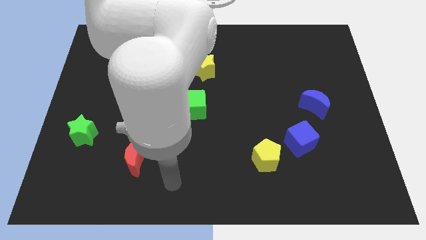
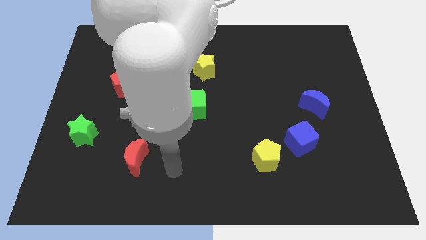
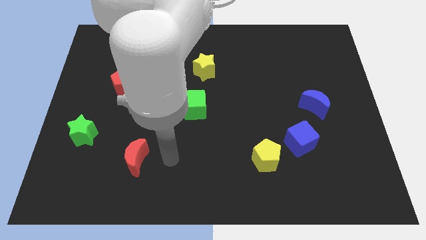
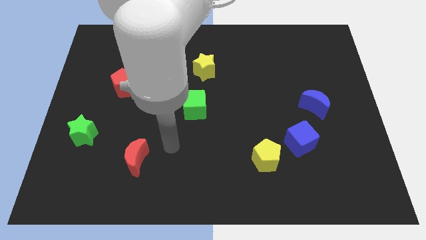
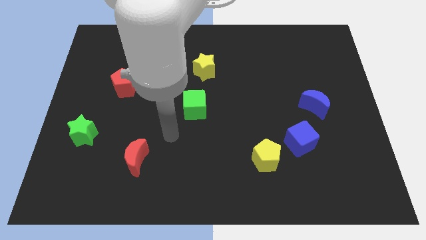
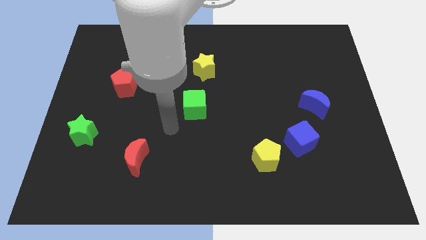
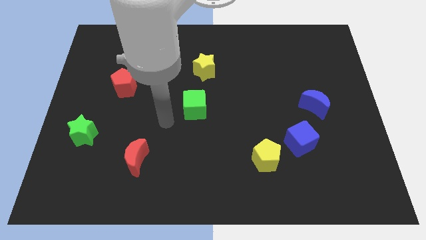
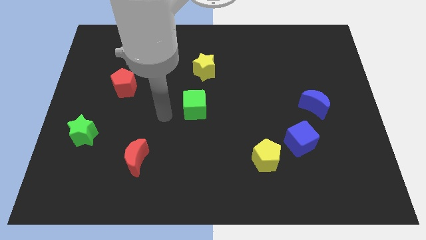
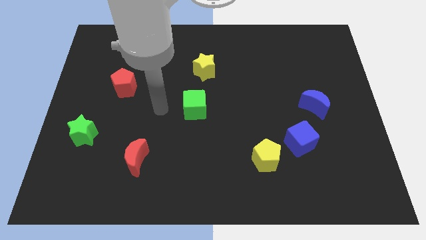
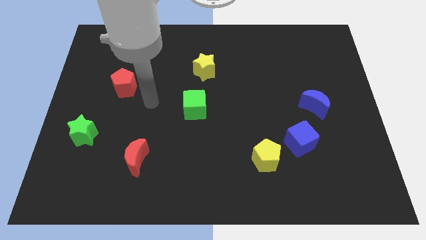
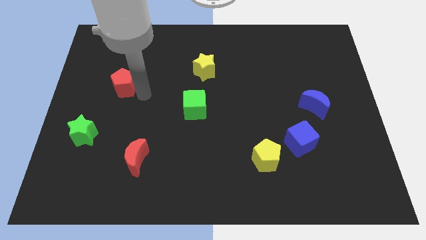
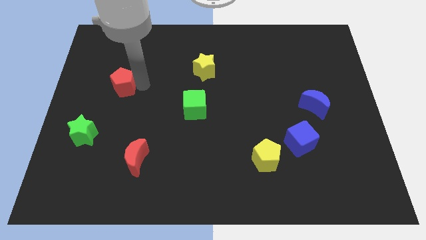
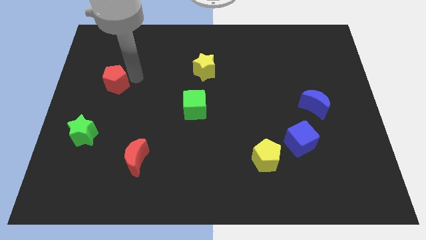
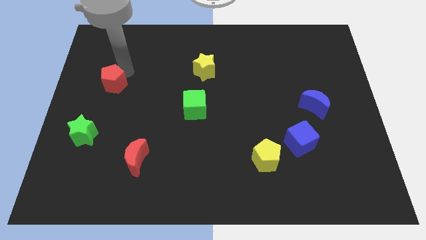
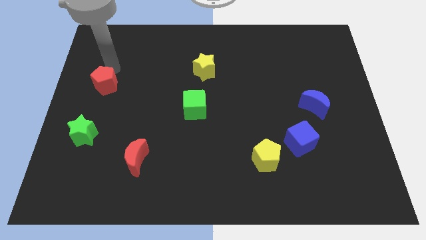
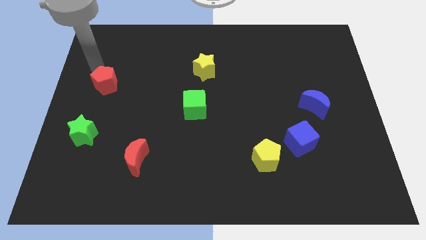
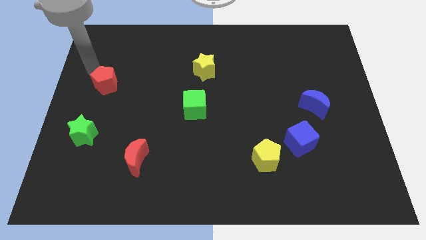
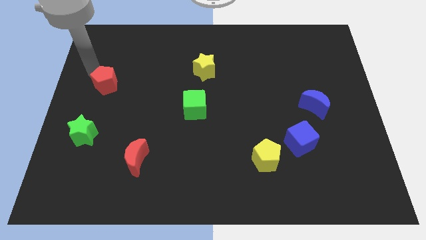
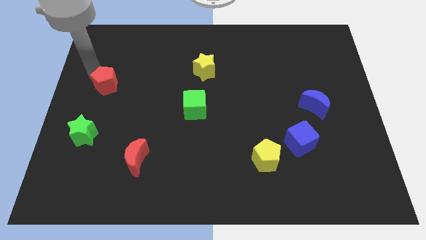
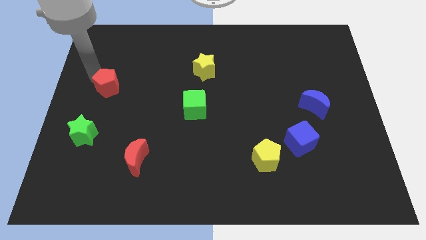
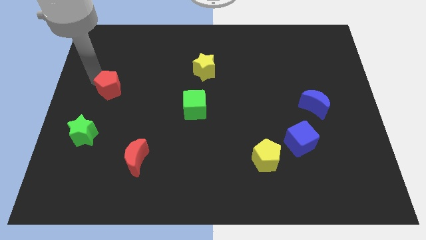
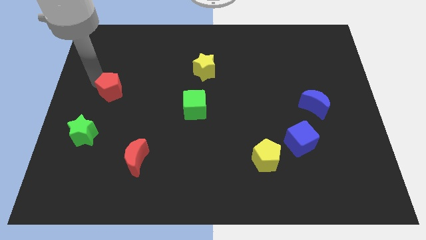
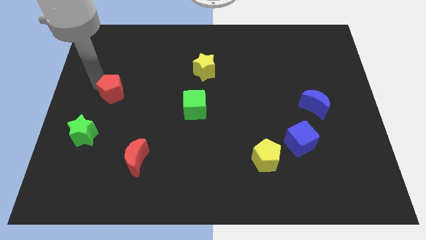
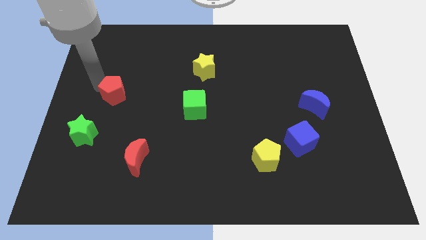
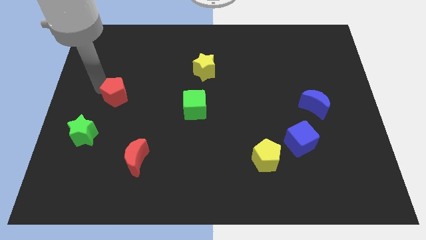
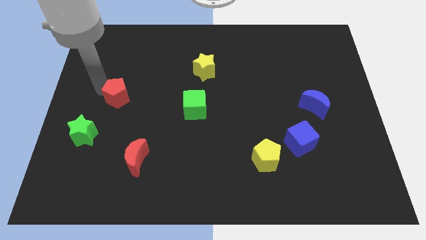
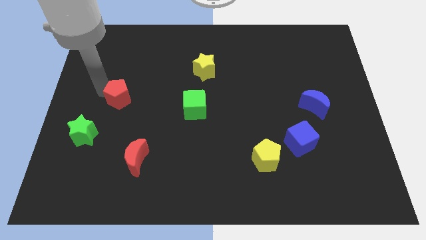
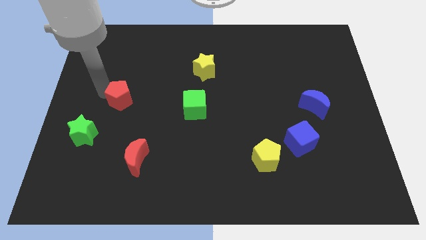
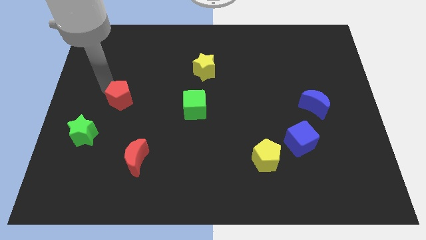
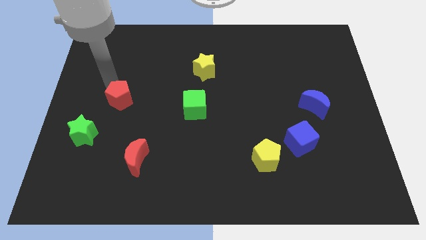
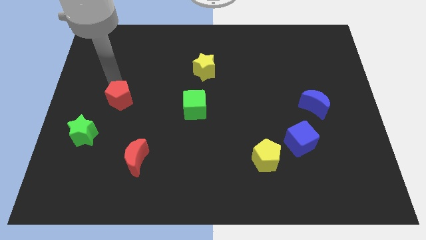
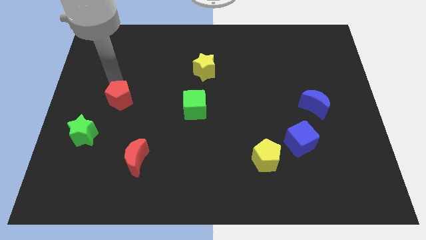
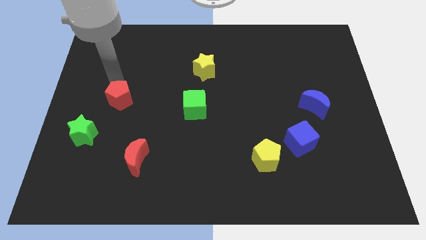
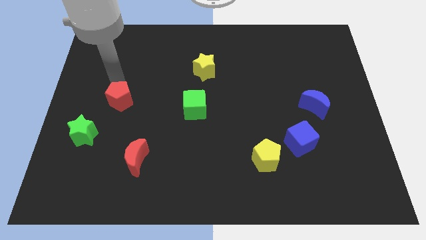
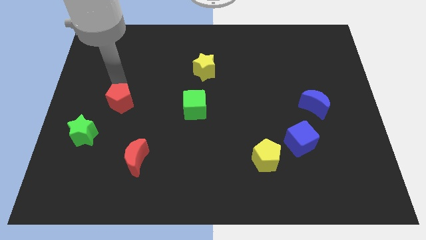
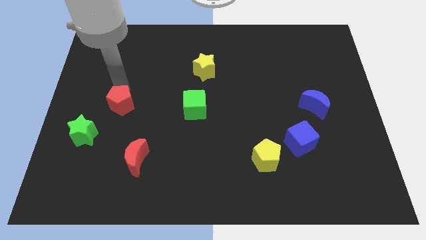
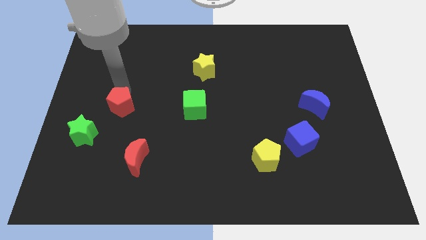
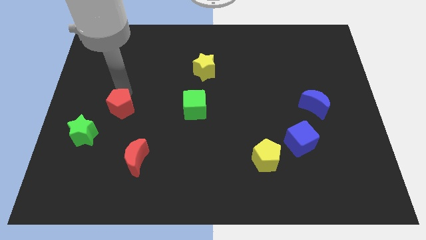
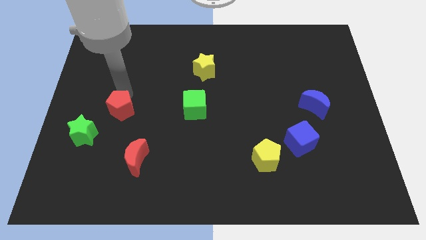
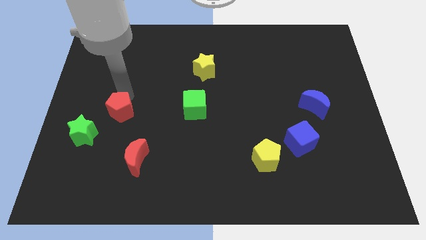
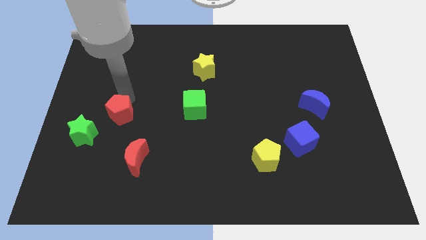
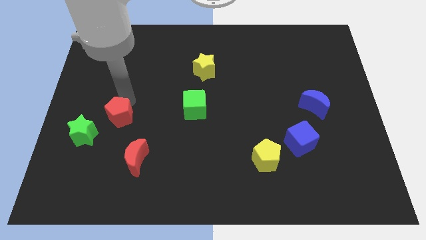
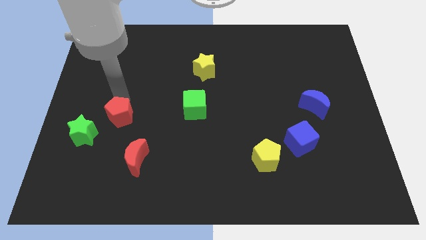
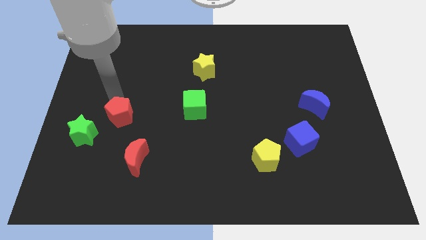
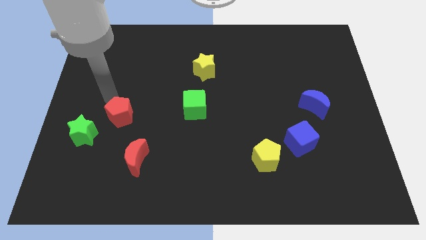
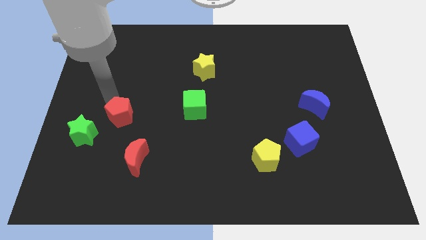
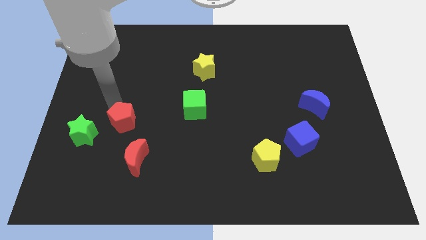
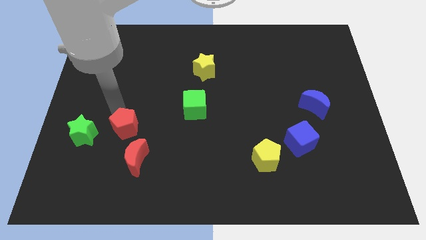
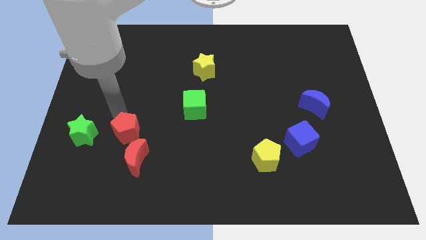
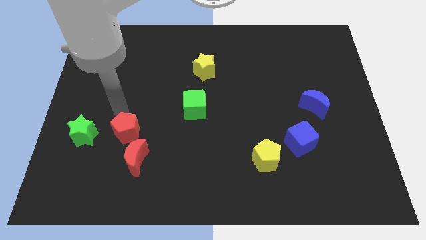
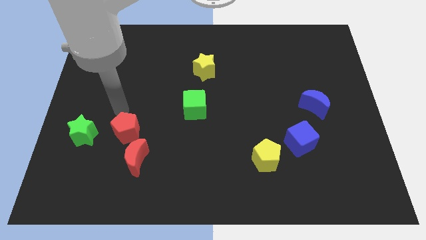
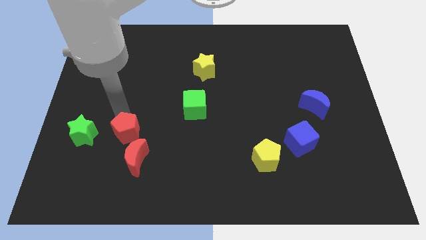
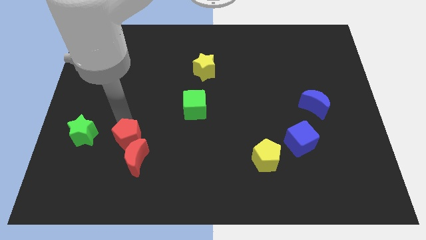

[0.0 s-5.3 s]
put the red pentagon close to the red moon

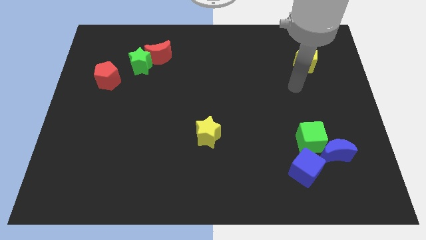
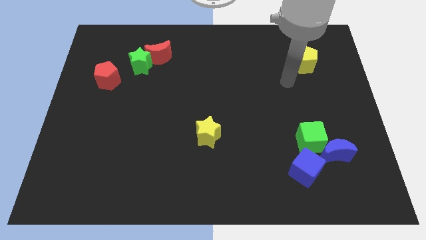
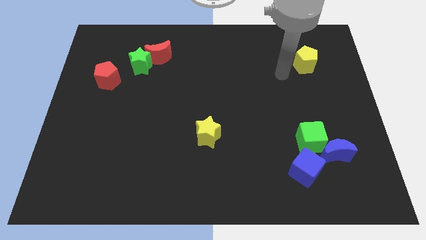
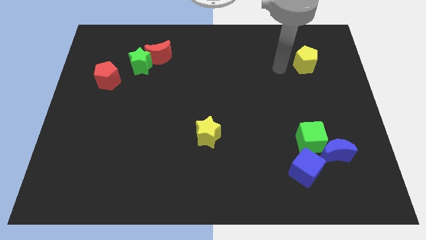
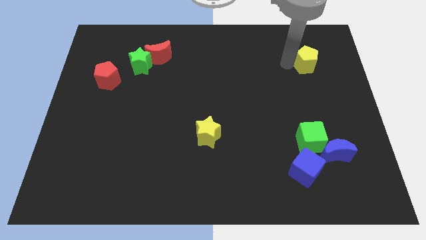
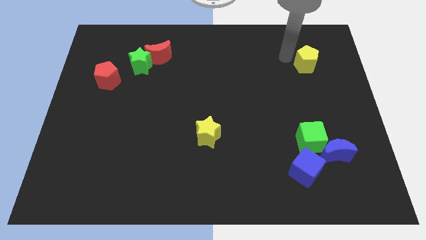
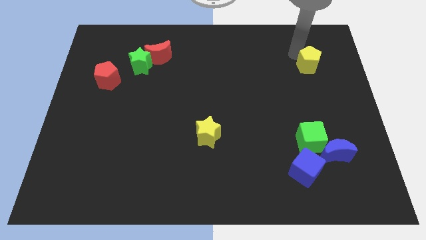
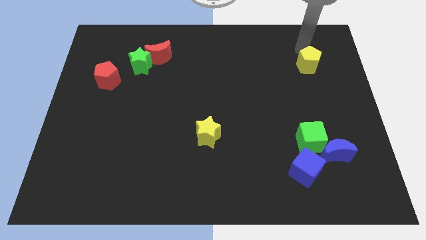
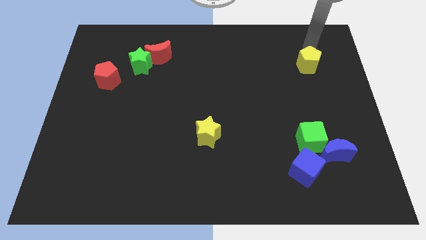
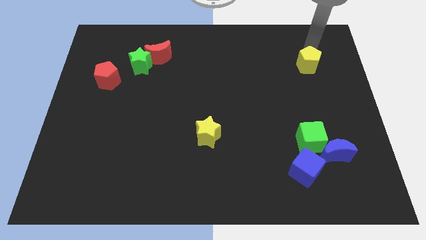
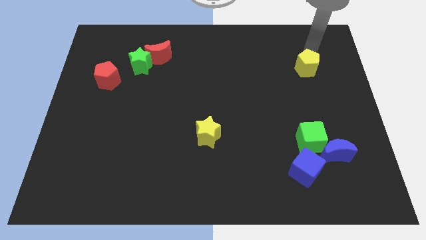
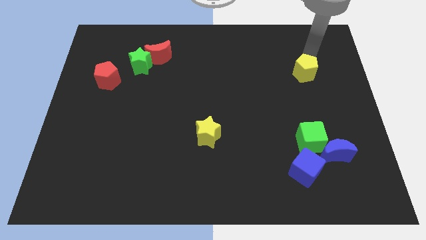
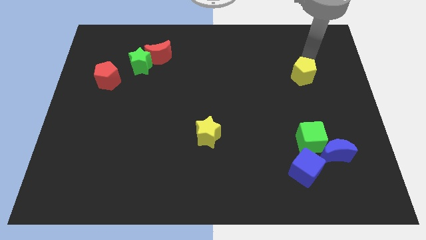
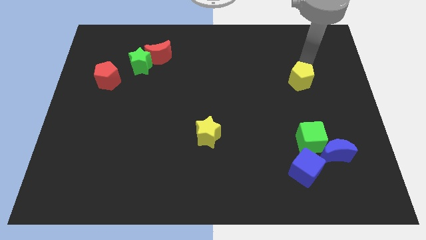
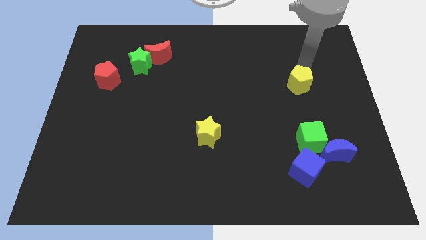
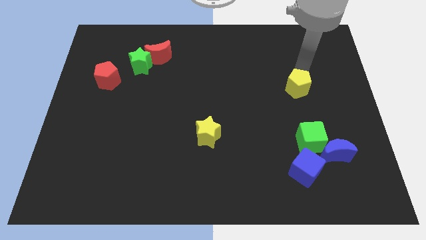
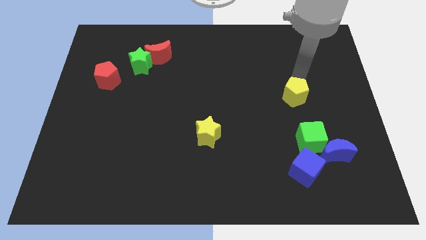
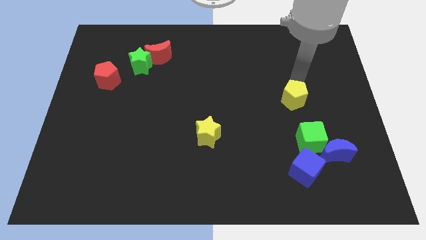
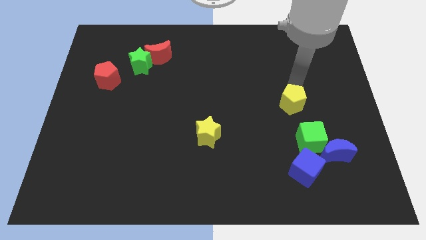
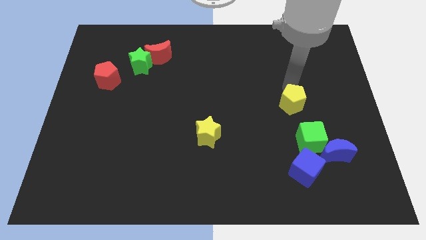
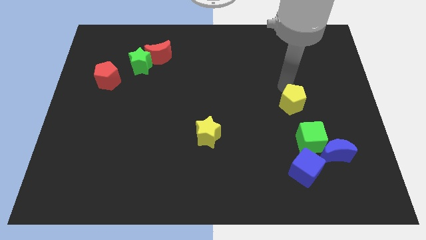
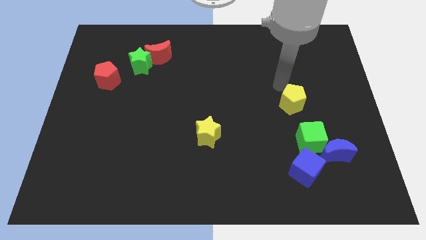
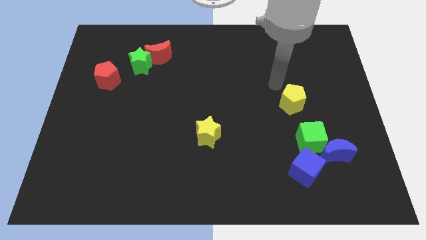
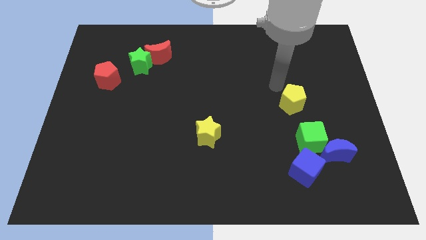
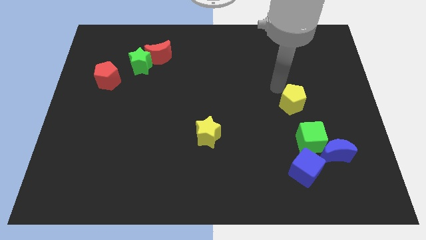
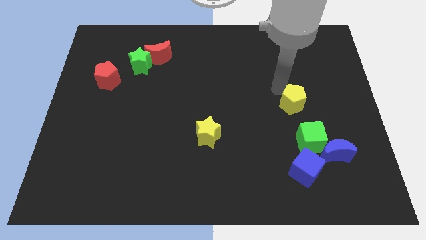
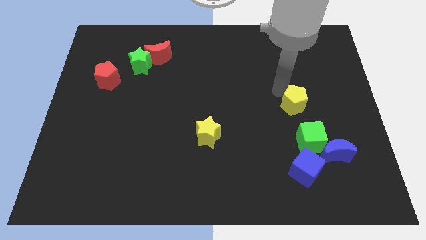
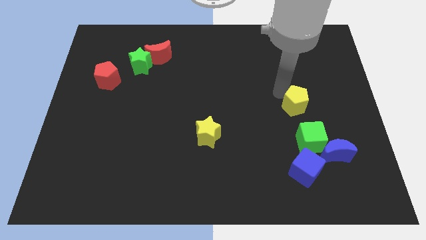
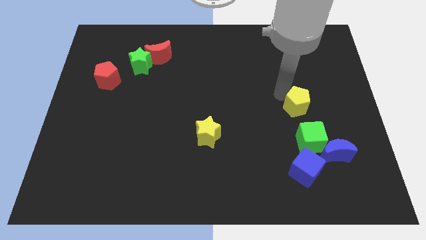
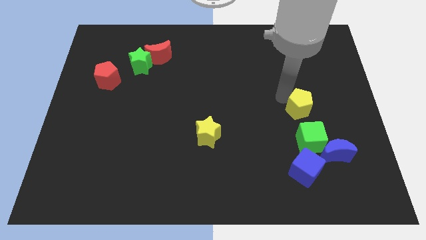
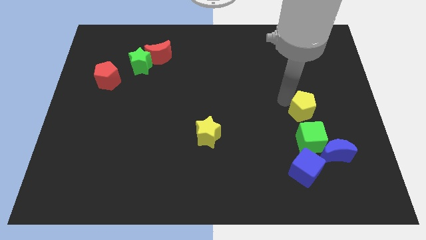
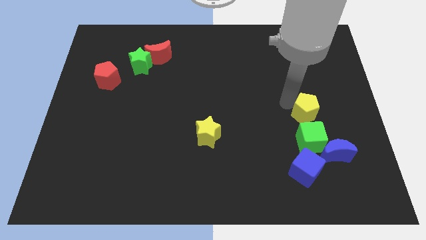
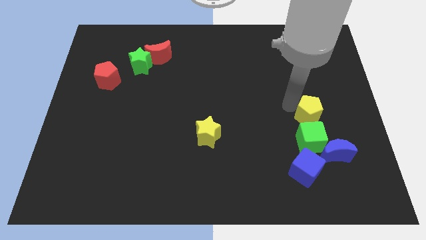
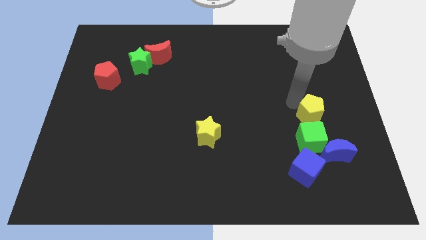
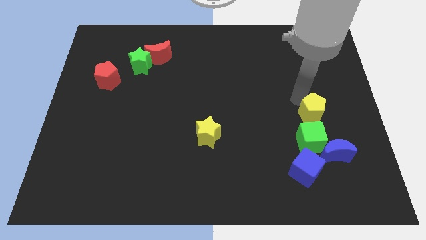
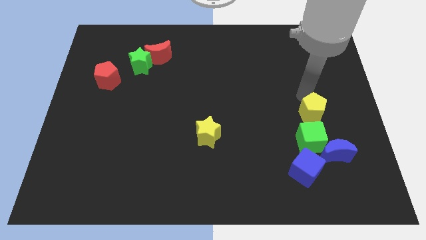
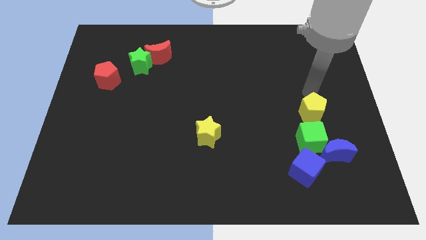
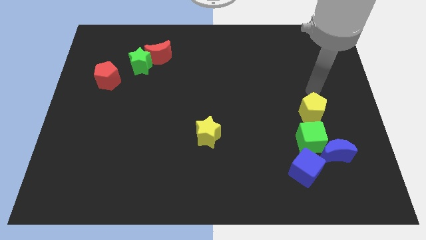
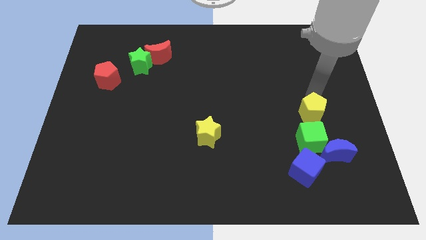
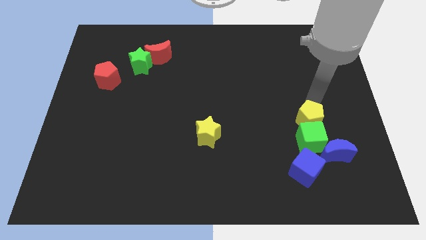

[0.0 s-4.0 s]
put the yellow pentagon next to the green cube
